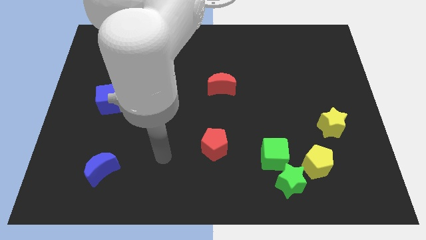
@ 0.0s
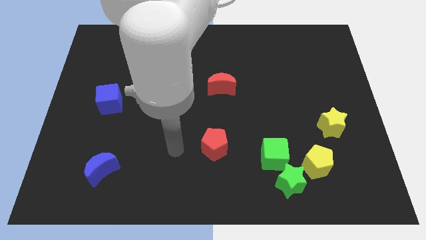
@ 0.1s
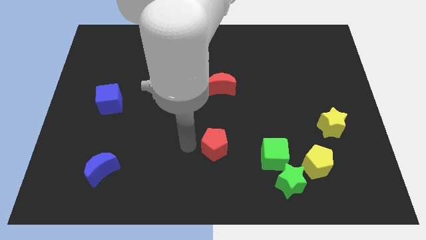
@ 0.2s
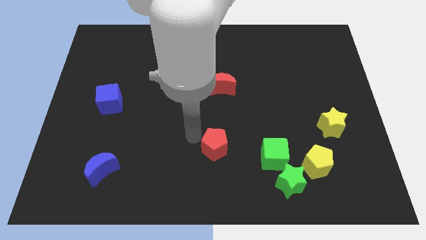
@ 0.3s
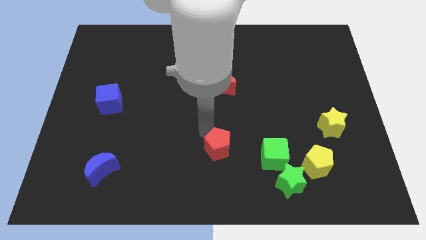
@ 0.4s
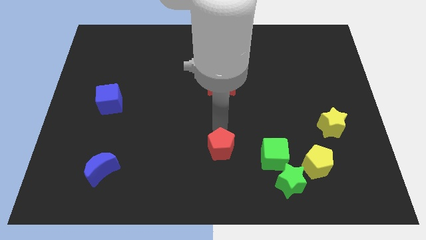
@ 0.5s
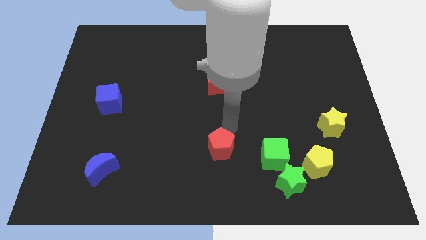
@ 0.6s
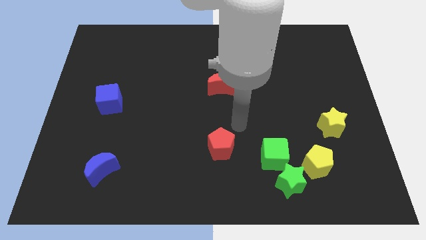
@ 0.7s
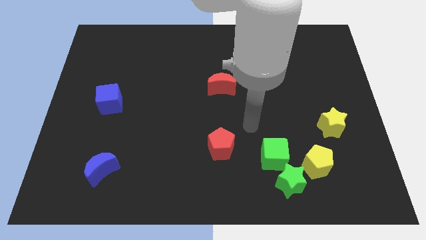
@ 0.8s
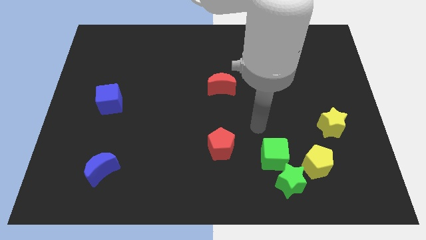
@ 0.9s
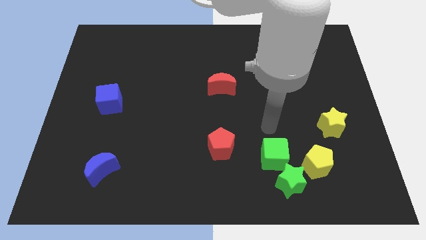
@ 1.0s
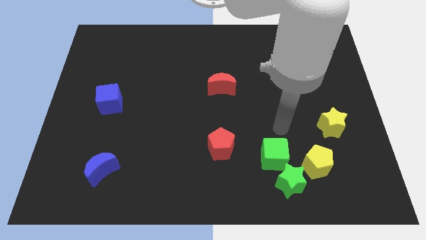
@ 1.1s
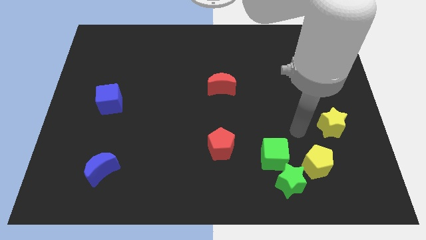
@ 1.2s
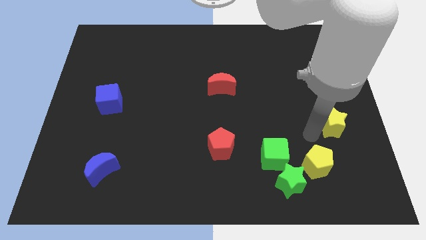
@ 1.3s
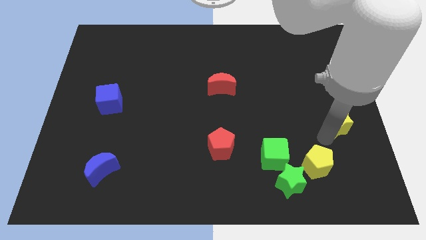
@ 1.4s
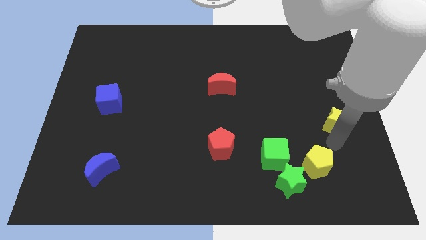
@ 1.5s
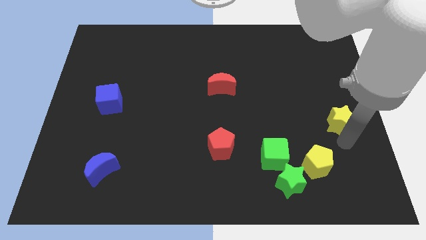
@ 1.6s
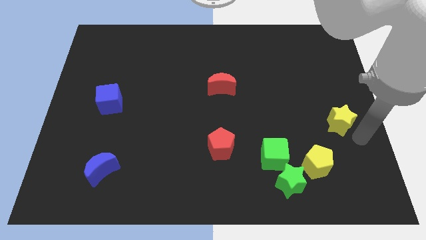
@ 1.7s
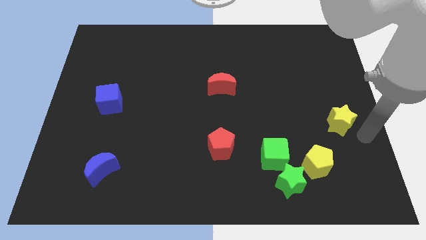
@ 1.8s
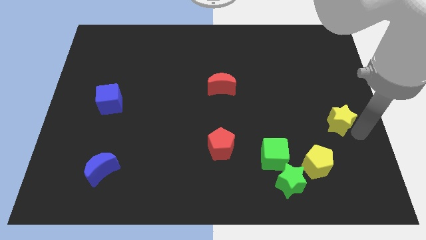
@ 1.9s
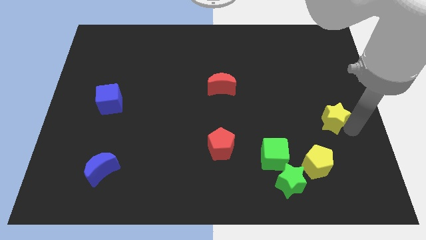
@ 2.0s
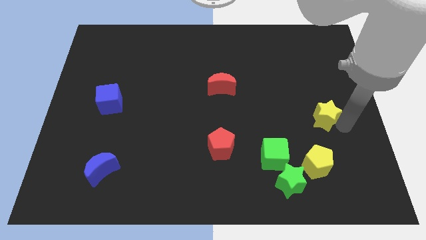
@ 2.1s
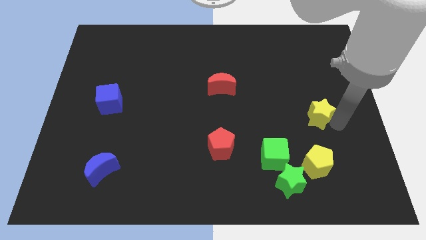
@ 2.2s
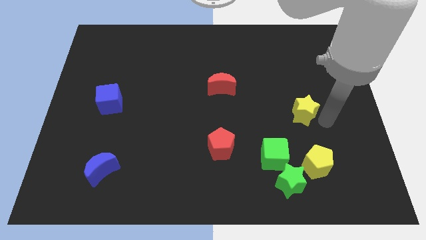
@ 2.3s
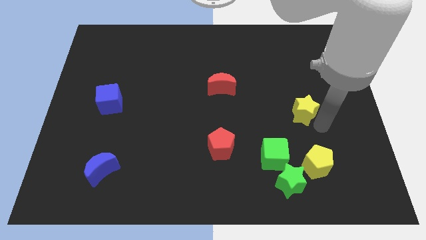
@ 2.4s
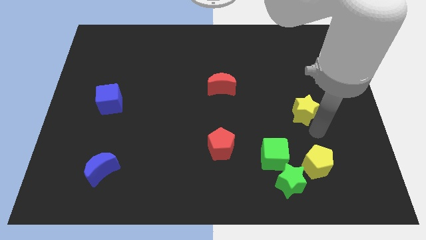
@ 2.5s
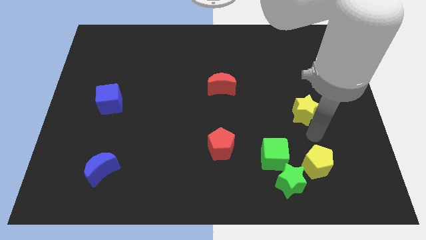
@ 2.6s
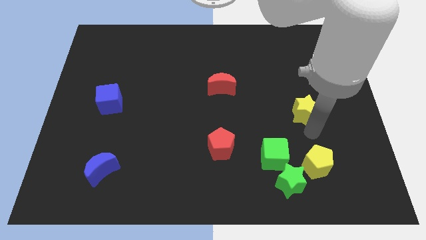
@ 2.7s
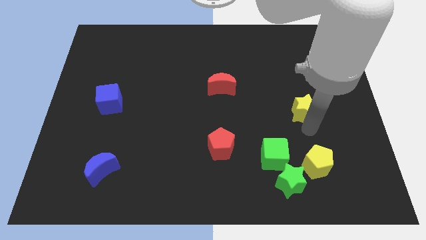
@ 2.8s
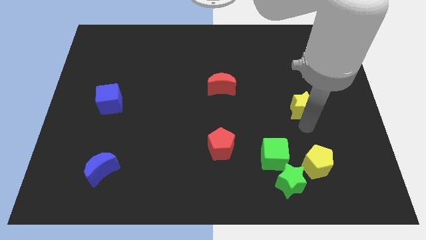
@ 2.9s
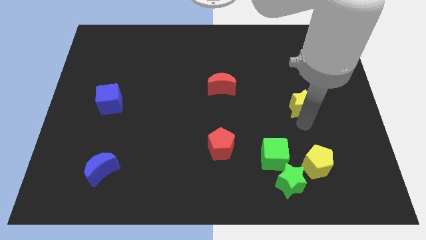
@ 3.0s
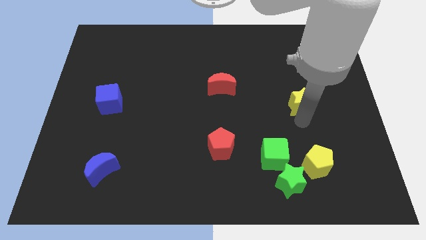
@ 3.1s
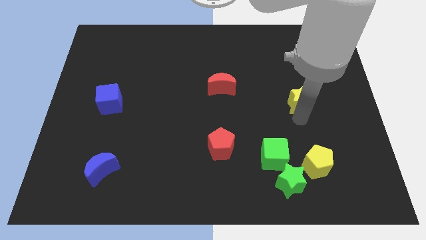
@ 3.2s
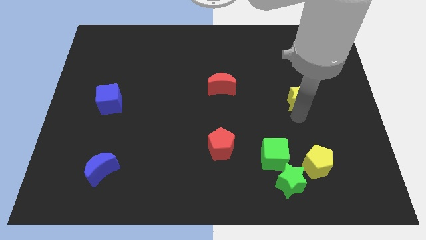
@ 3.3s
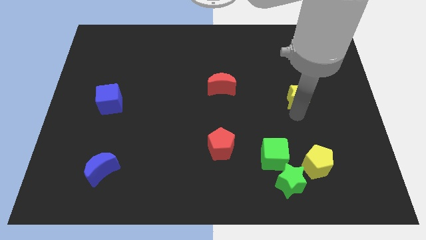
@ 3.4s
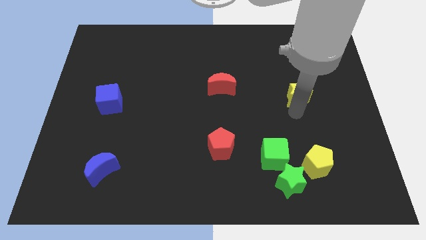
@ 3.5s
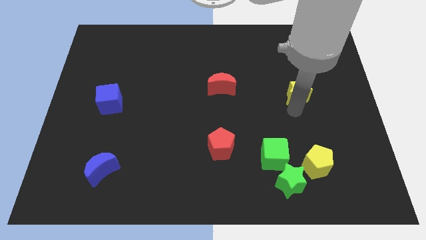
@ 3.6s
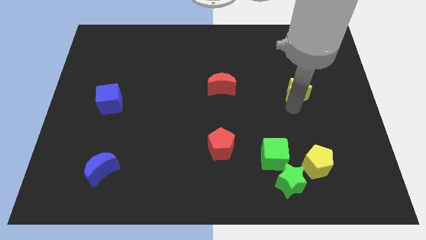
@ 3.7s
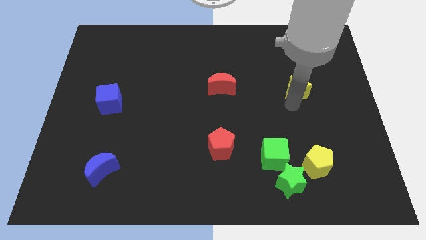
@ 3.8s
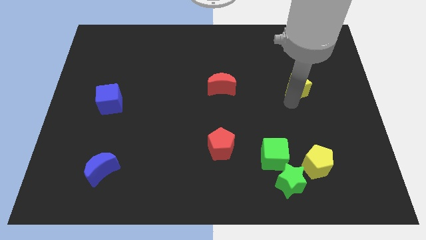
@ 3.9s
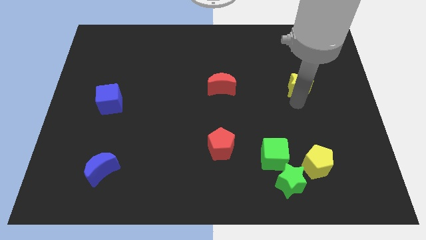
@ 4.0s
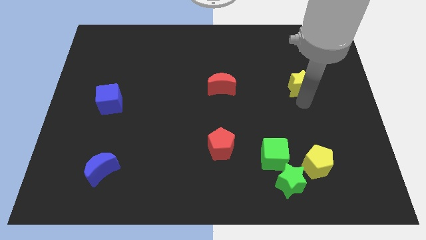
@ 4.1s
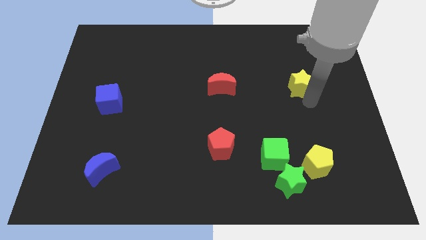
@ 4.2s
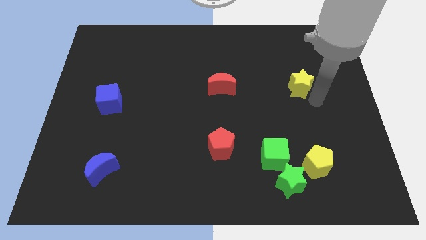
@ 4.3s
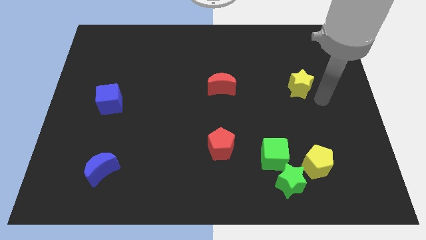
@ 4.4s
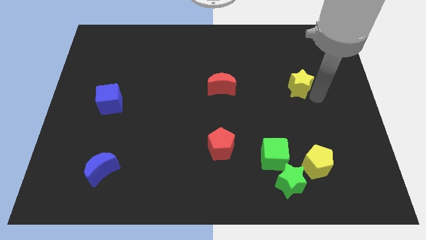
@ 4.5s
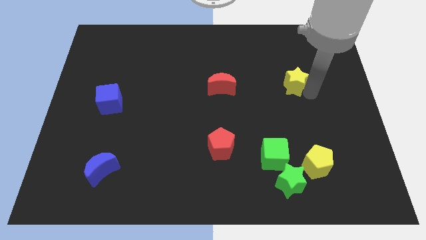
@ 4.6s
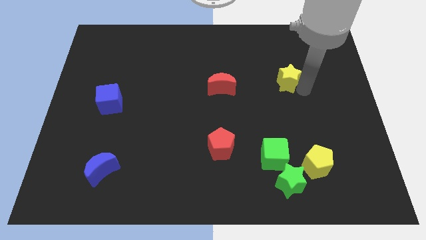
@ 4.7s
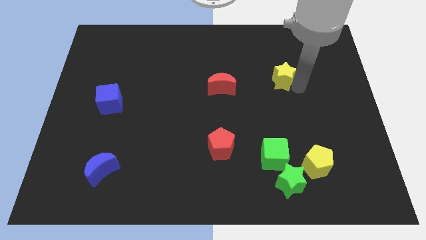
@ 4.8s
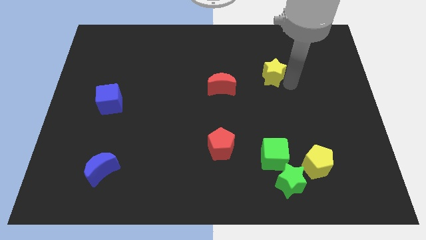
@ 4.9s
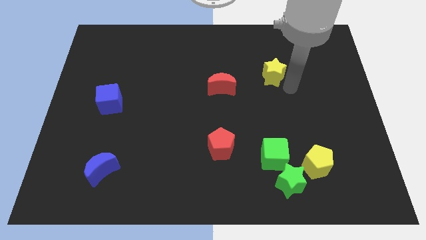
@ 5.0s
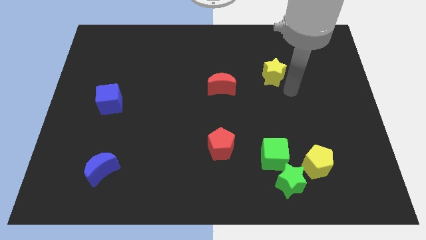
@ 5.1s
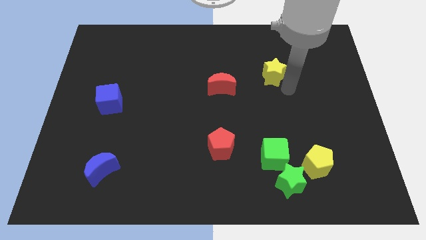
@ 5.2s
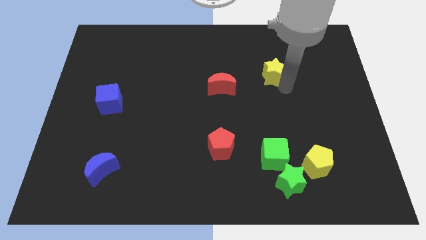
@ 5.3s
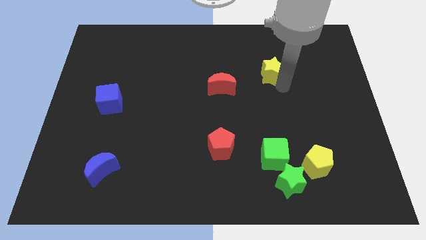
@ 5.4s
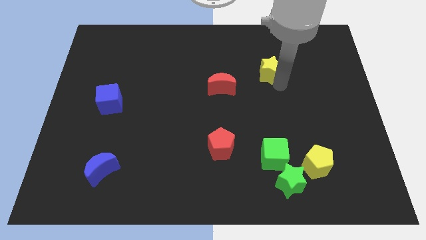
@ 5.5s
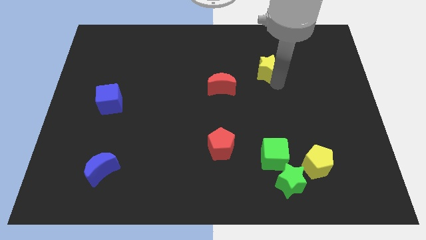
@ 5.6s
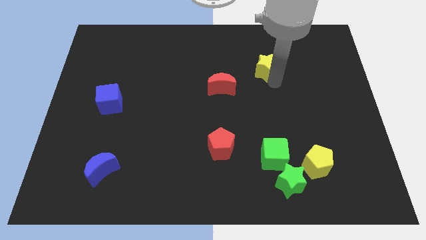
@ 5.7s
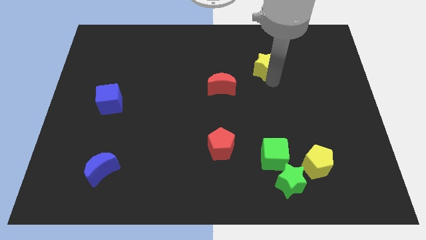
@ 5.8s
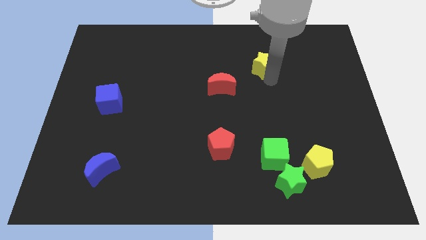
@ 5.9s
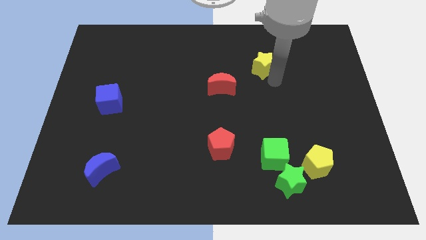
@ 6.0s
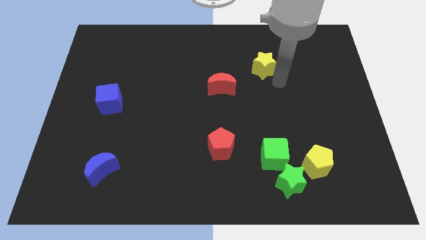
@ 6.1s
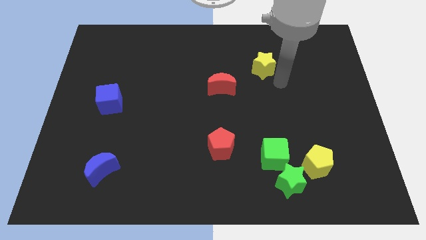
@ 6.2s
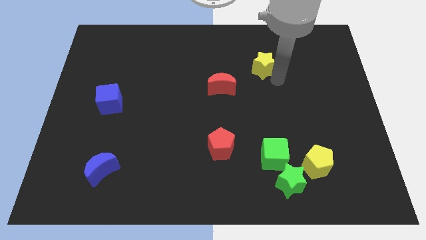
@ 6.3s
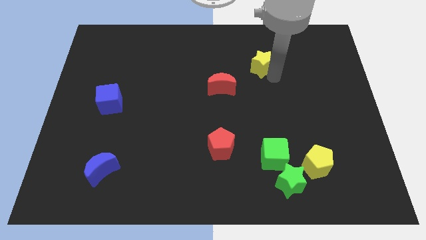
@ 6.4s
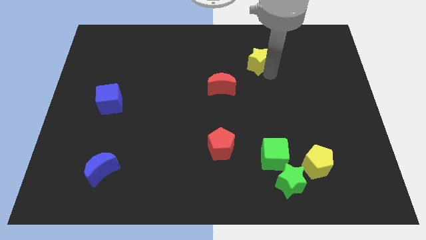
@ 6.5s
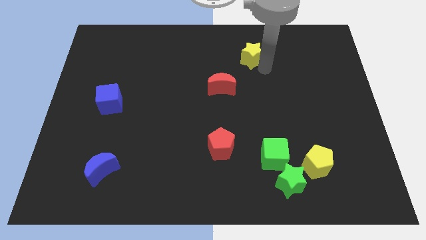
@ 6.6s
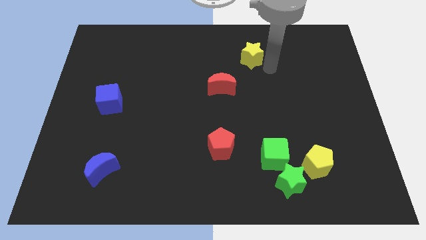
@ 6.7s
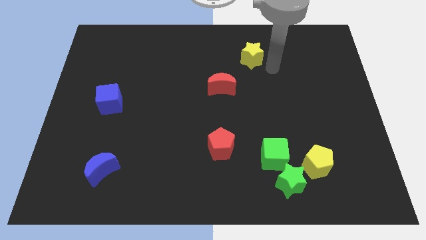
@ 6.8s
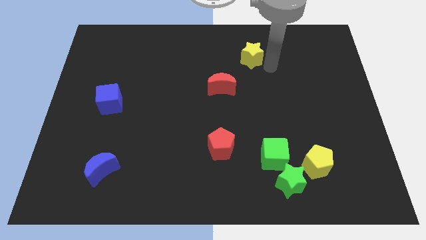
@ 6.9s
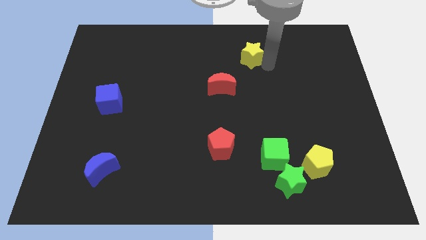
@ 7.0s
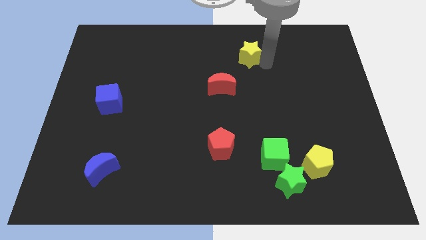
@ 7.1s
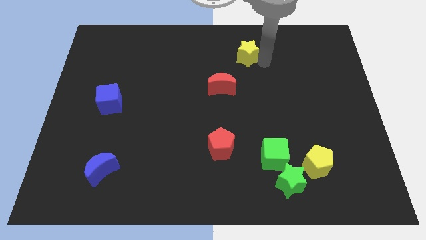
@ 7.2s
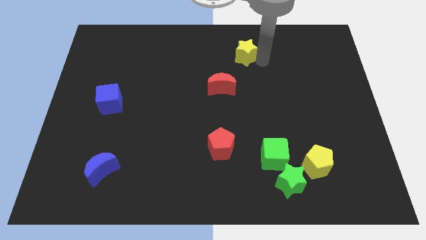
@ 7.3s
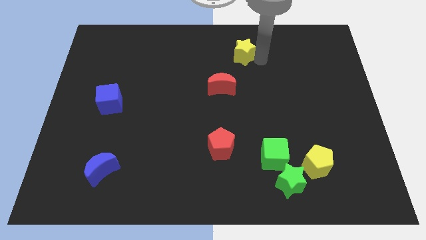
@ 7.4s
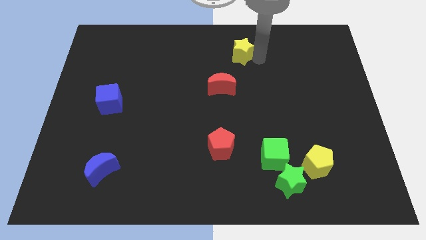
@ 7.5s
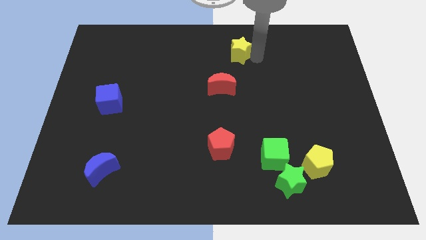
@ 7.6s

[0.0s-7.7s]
move the yellow star to the top
